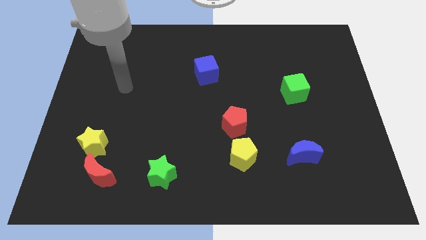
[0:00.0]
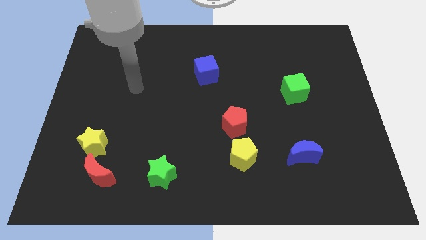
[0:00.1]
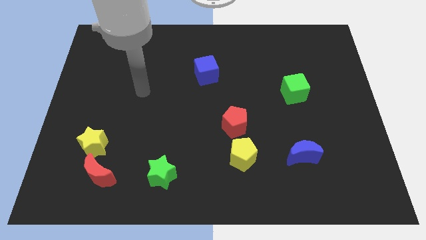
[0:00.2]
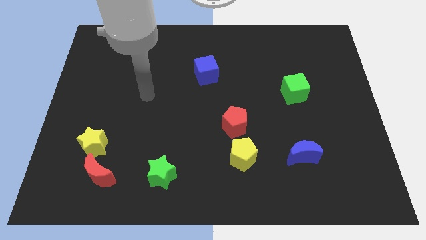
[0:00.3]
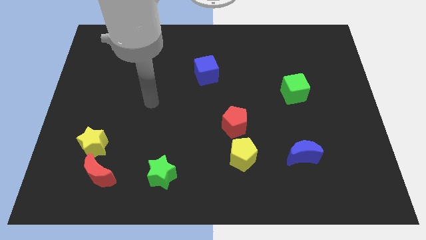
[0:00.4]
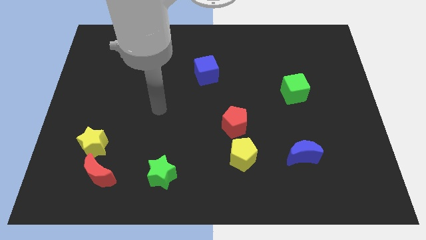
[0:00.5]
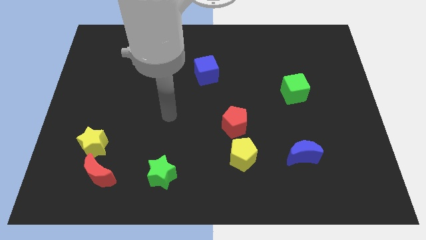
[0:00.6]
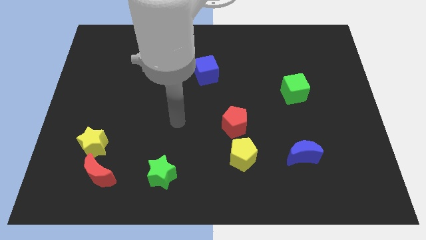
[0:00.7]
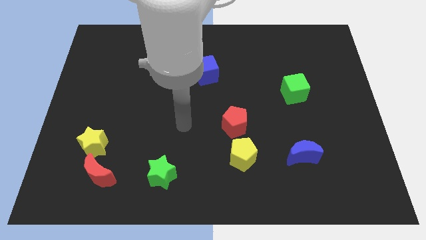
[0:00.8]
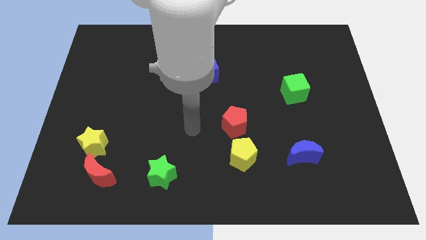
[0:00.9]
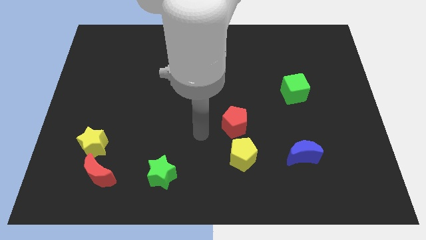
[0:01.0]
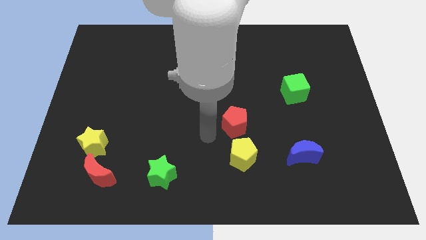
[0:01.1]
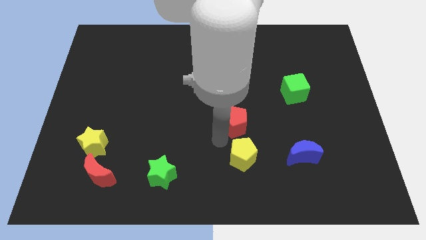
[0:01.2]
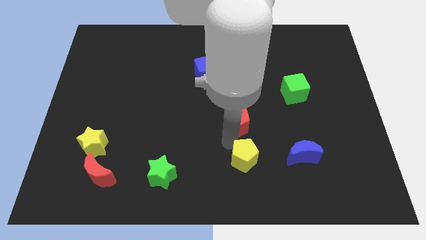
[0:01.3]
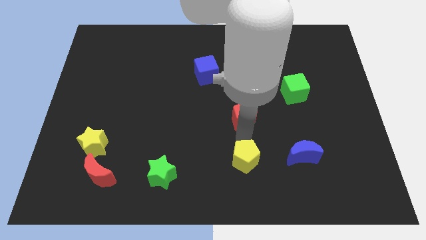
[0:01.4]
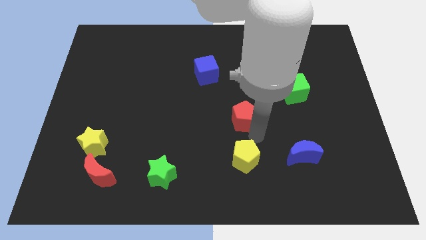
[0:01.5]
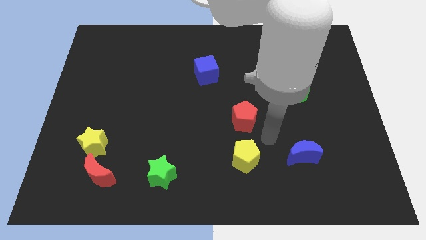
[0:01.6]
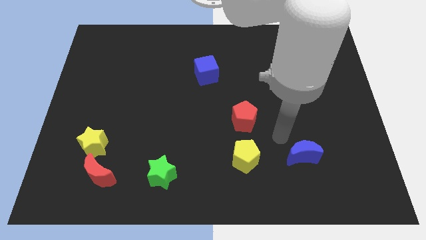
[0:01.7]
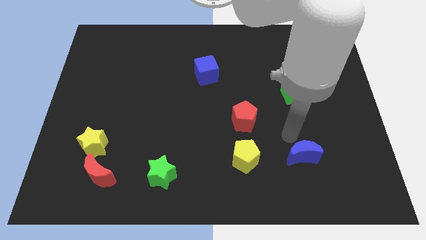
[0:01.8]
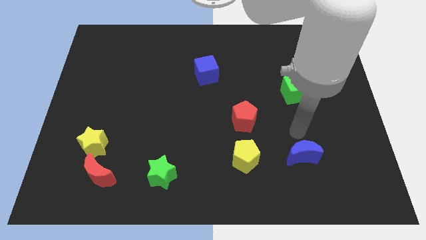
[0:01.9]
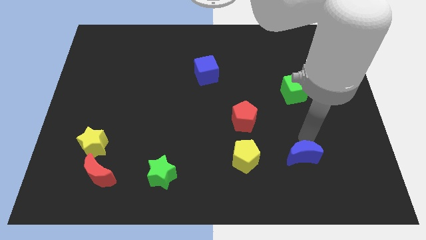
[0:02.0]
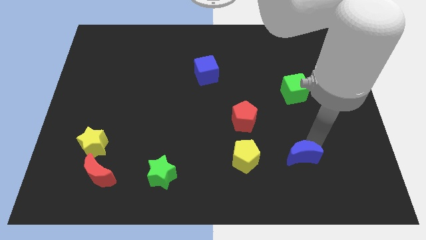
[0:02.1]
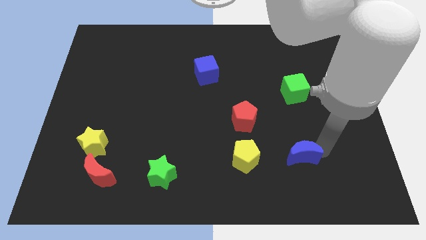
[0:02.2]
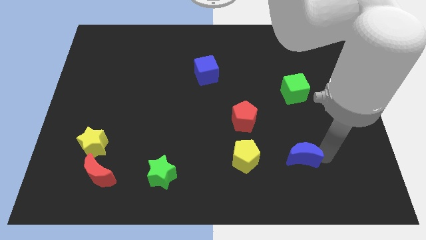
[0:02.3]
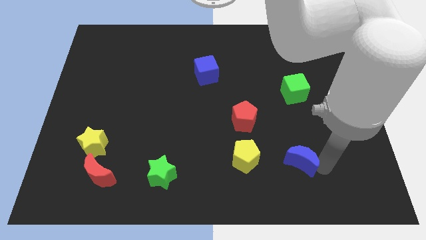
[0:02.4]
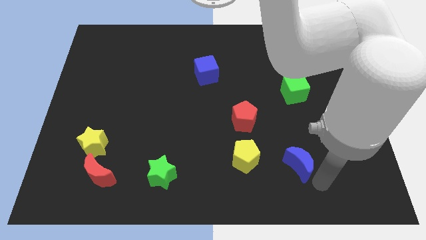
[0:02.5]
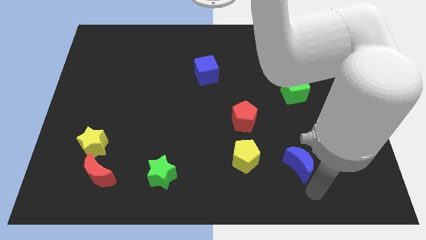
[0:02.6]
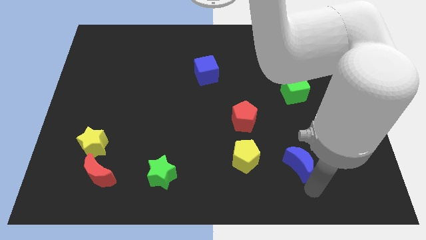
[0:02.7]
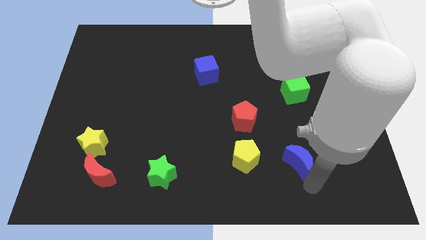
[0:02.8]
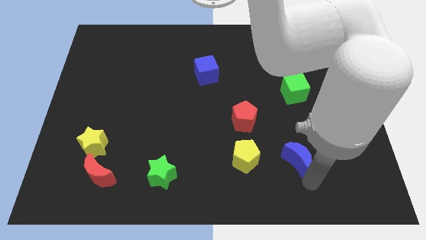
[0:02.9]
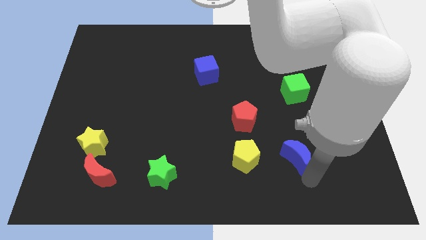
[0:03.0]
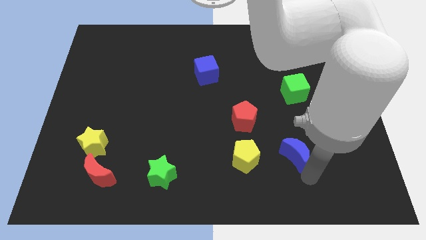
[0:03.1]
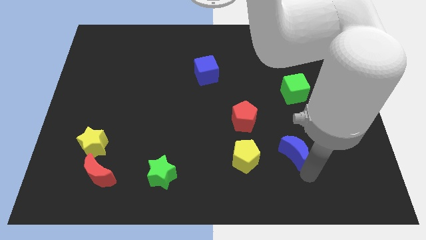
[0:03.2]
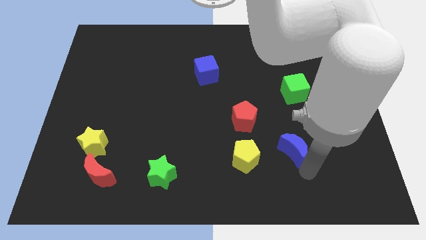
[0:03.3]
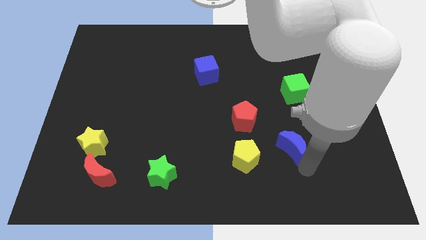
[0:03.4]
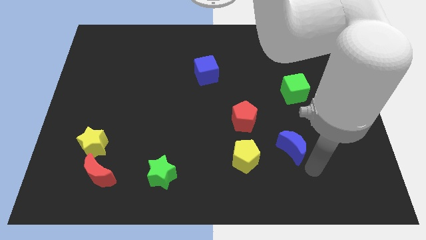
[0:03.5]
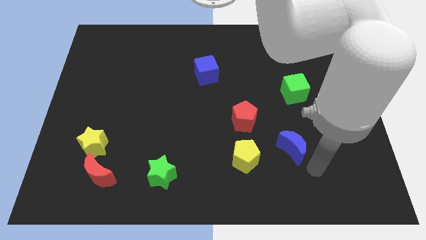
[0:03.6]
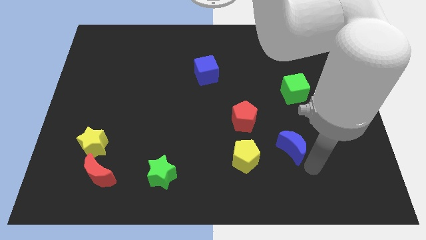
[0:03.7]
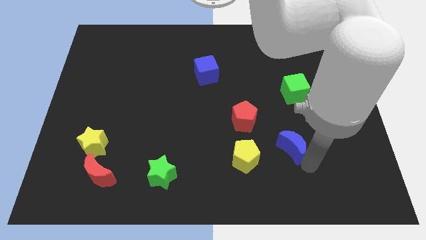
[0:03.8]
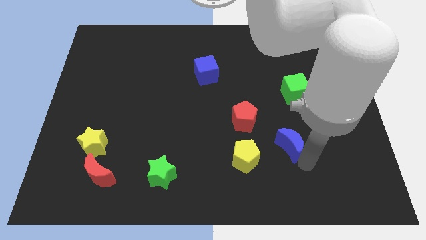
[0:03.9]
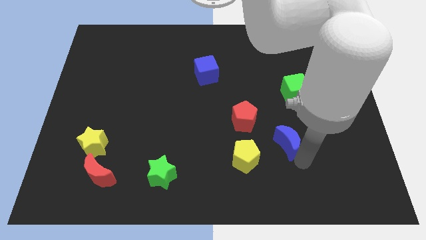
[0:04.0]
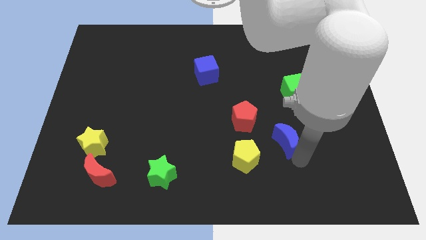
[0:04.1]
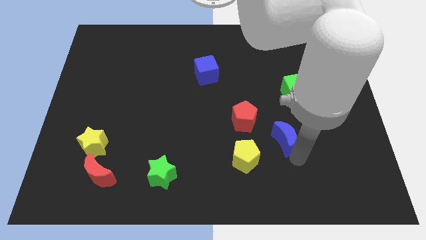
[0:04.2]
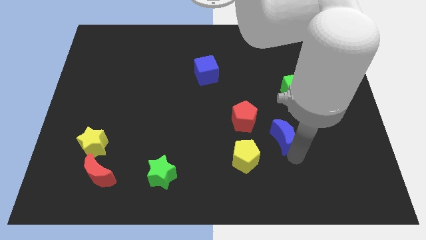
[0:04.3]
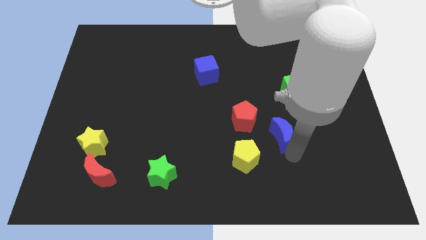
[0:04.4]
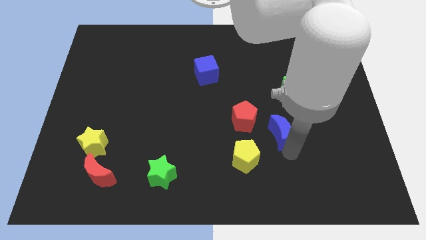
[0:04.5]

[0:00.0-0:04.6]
push the blue moon upwards and to the left diagonally slightly

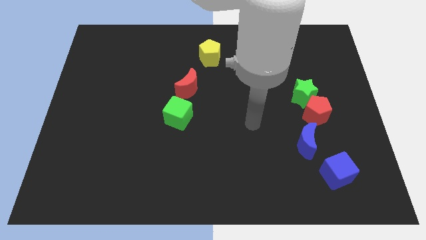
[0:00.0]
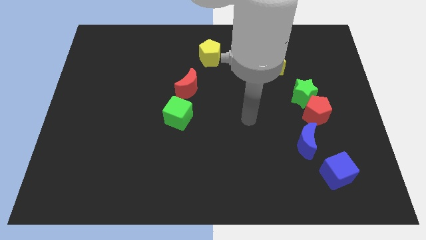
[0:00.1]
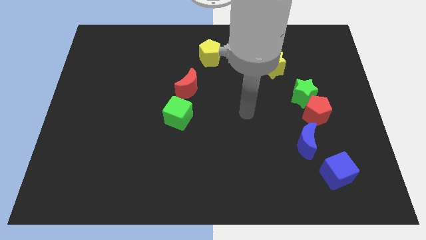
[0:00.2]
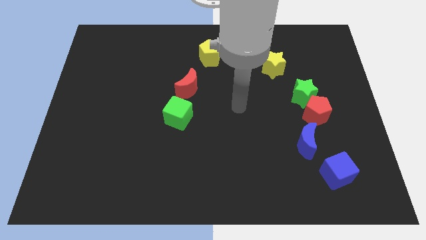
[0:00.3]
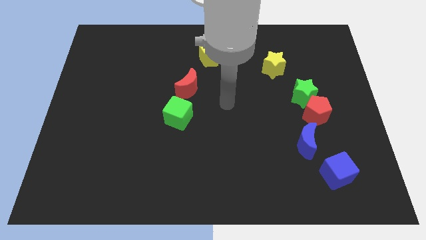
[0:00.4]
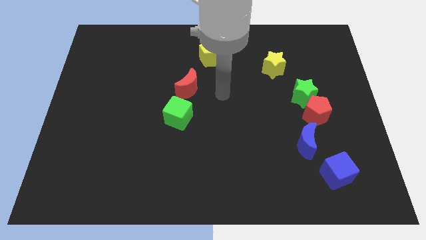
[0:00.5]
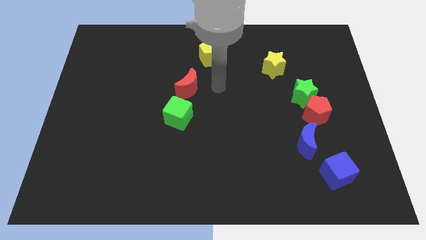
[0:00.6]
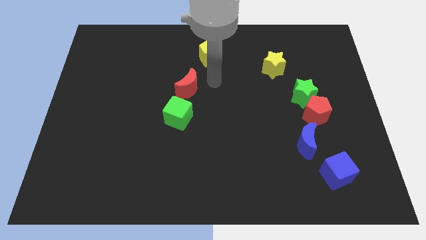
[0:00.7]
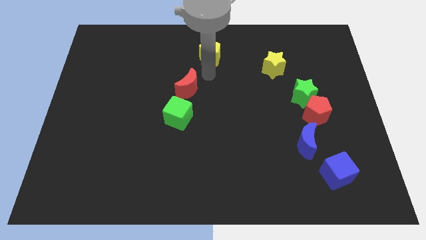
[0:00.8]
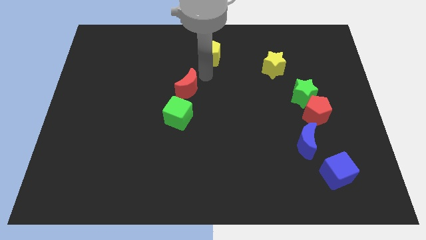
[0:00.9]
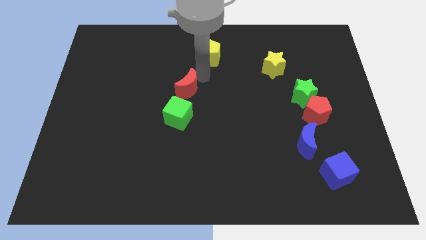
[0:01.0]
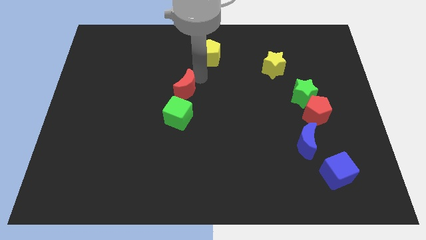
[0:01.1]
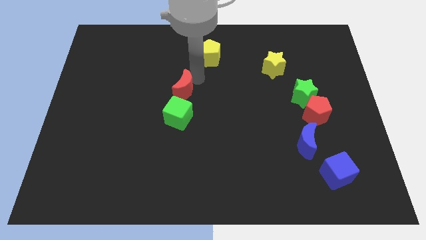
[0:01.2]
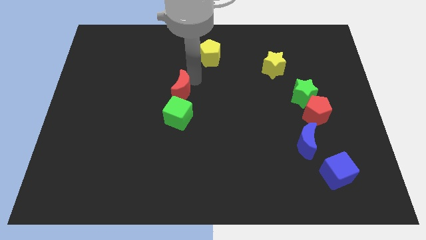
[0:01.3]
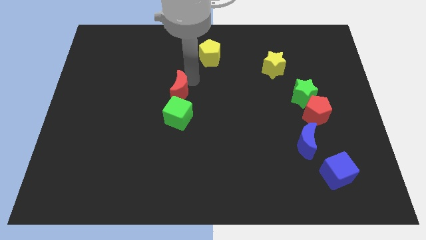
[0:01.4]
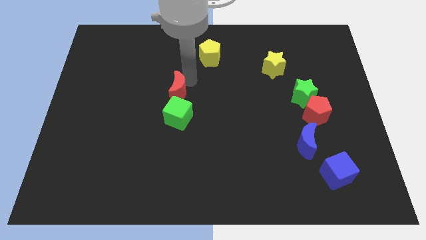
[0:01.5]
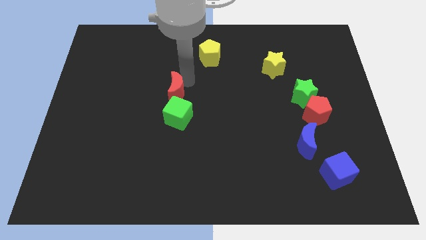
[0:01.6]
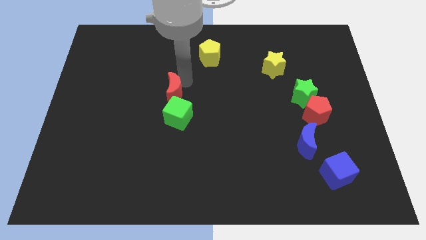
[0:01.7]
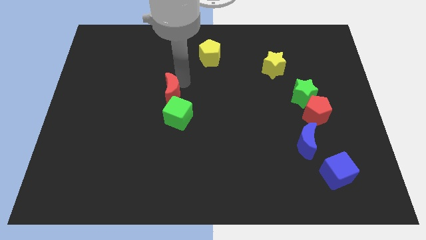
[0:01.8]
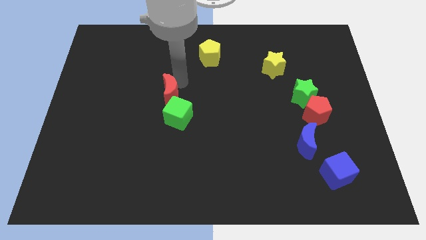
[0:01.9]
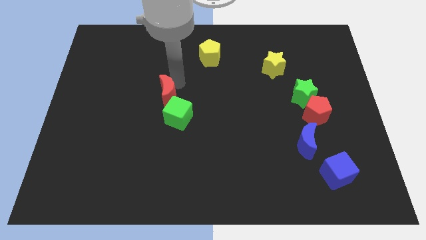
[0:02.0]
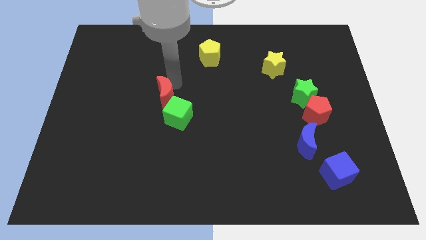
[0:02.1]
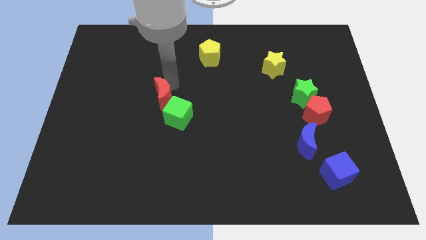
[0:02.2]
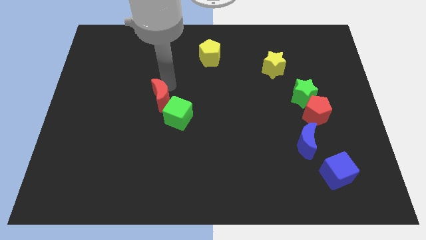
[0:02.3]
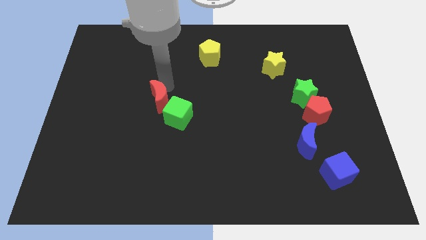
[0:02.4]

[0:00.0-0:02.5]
push the red moon a little diagonally down and to the left

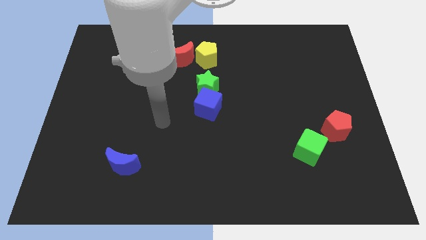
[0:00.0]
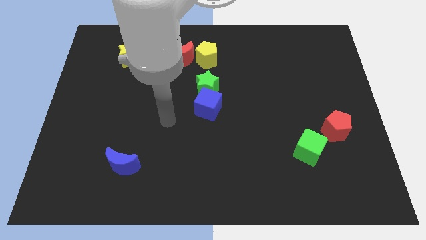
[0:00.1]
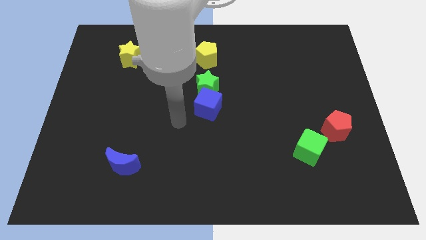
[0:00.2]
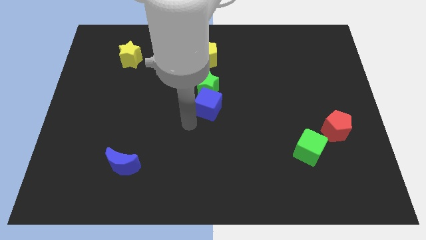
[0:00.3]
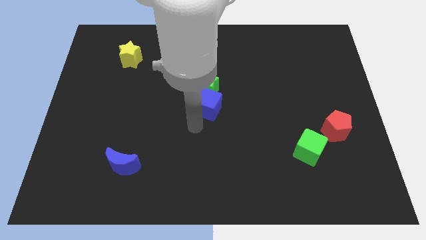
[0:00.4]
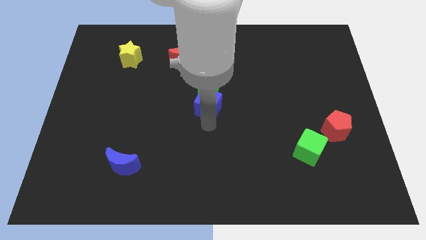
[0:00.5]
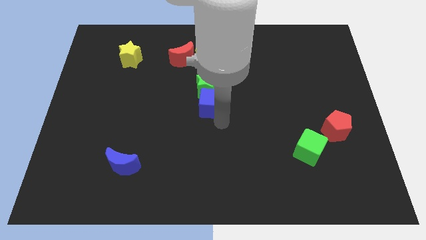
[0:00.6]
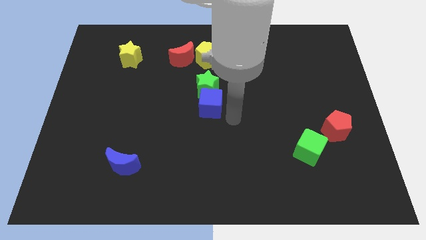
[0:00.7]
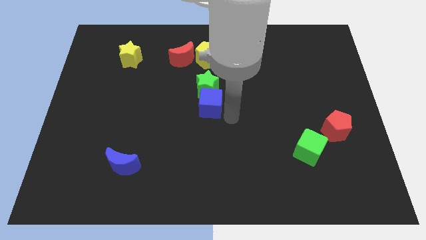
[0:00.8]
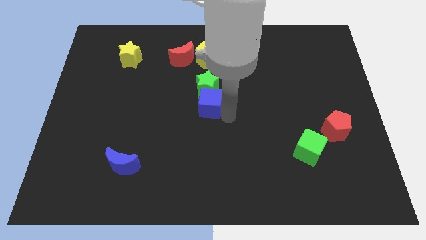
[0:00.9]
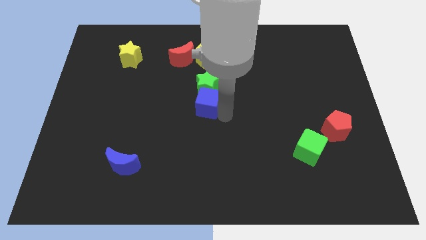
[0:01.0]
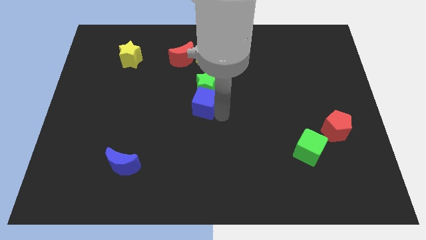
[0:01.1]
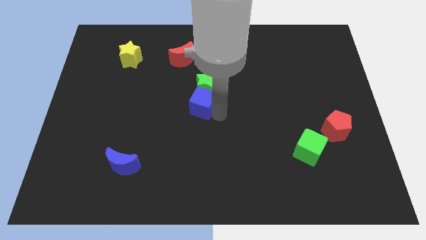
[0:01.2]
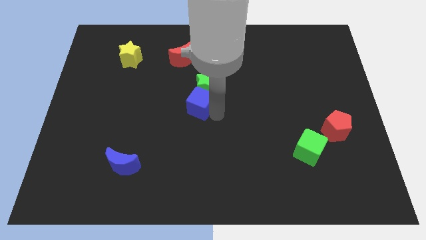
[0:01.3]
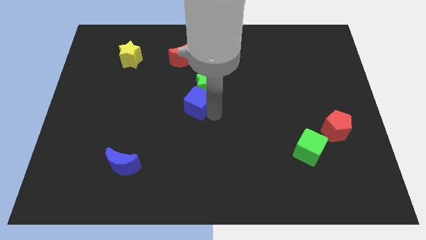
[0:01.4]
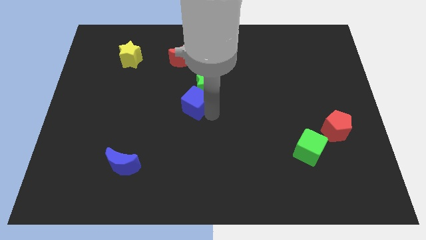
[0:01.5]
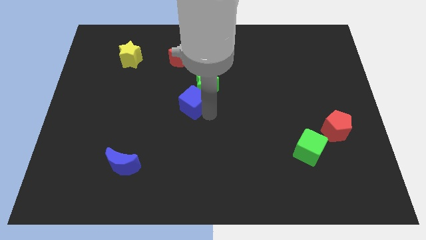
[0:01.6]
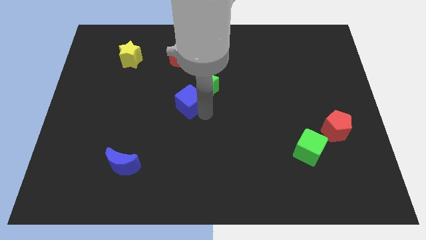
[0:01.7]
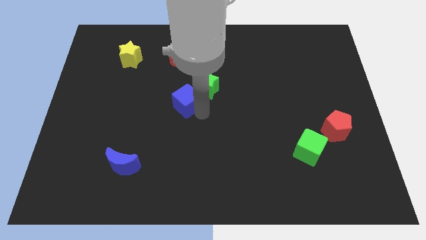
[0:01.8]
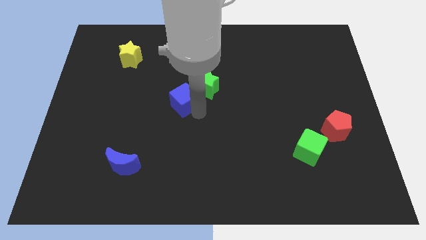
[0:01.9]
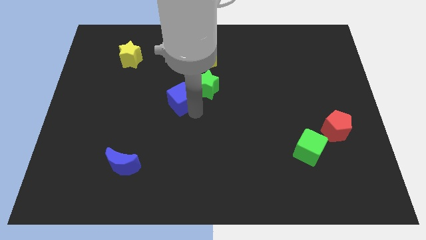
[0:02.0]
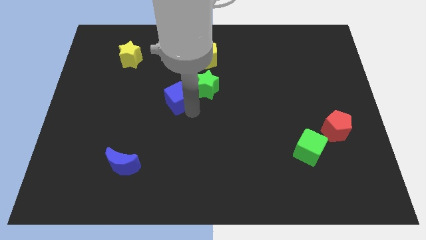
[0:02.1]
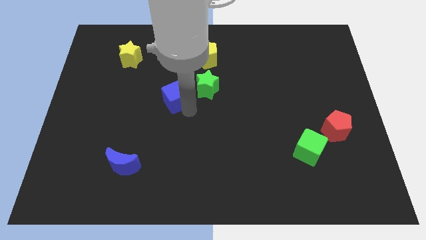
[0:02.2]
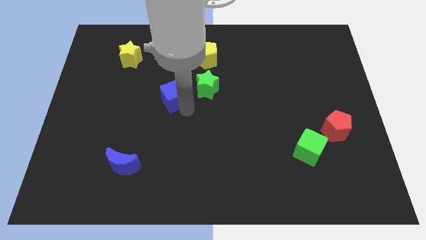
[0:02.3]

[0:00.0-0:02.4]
push the blue cube a little diagonally upwards and left
